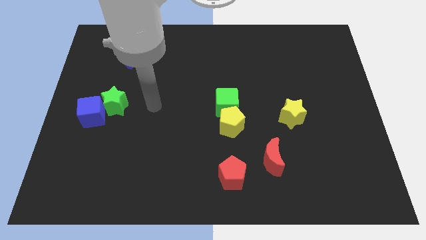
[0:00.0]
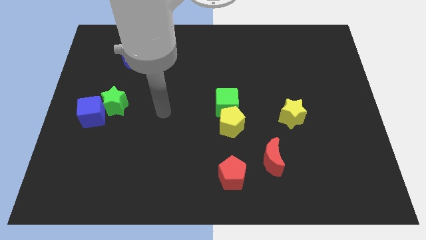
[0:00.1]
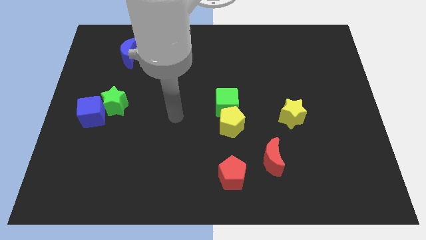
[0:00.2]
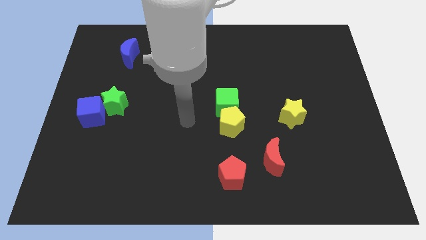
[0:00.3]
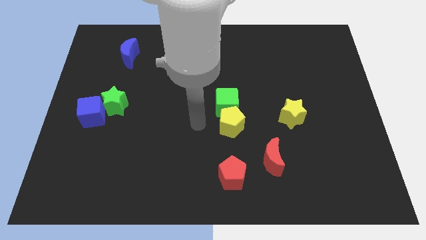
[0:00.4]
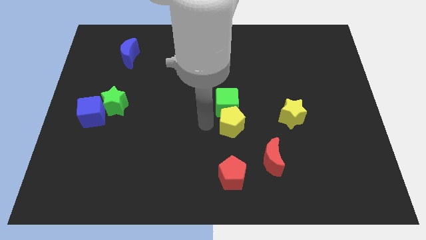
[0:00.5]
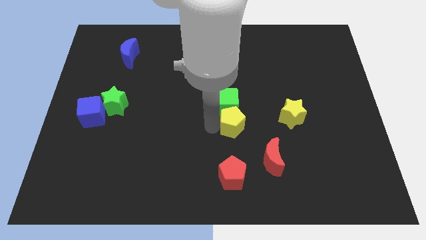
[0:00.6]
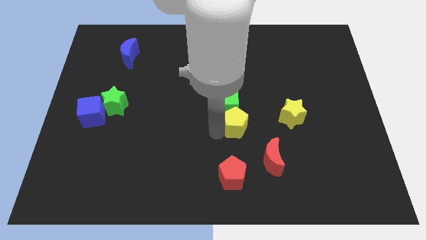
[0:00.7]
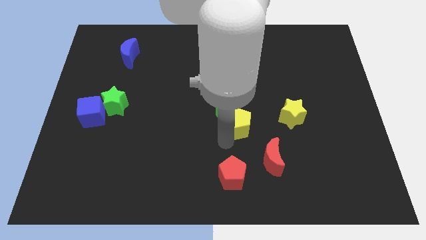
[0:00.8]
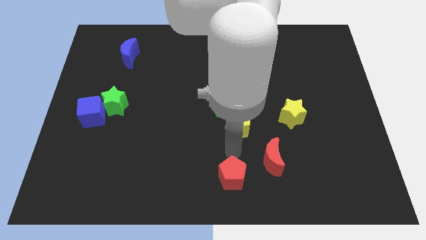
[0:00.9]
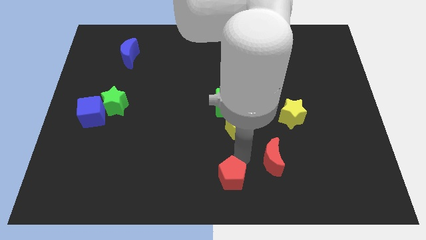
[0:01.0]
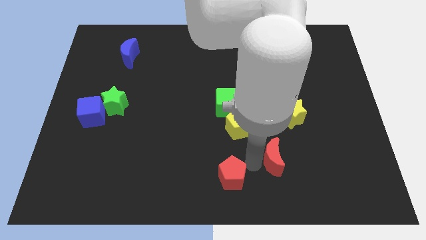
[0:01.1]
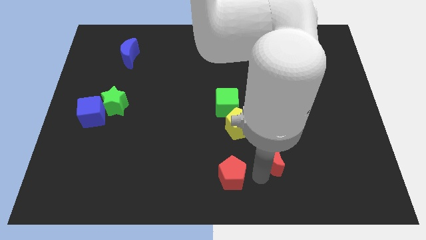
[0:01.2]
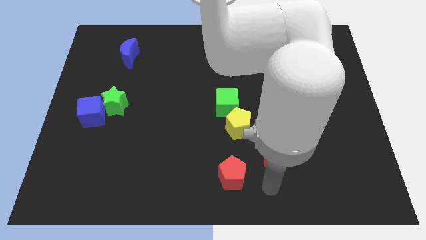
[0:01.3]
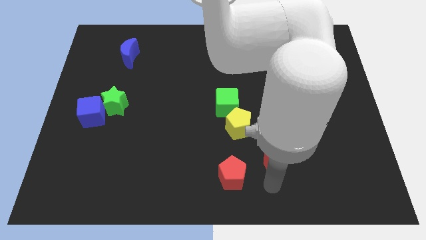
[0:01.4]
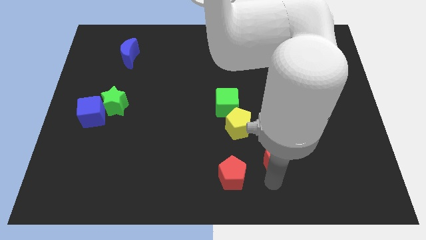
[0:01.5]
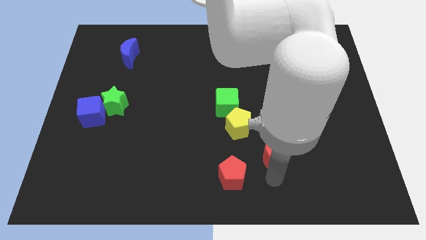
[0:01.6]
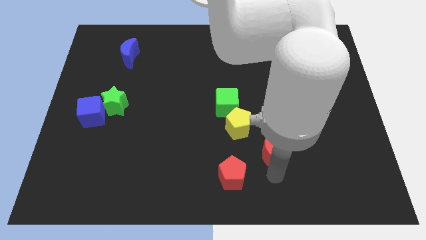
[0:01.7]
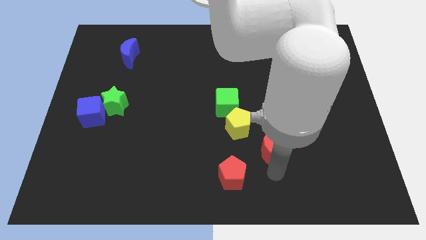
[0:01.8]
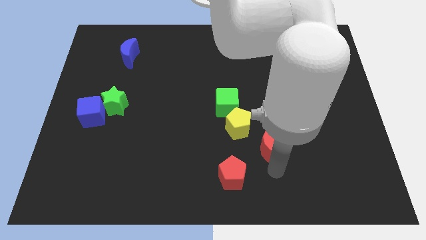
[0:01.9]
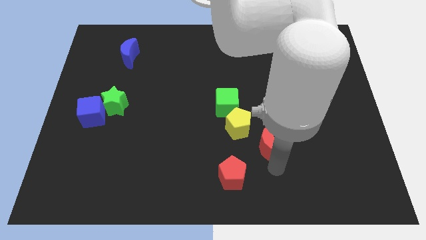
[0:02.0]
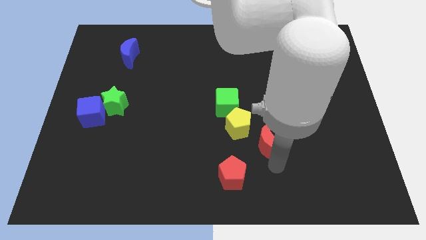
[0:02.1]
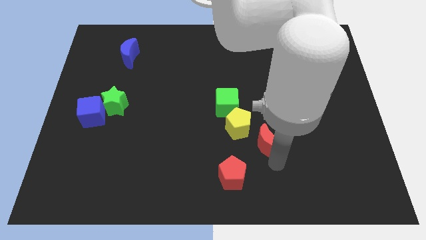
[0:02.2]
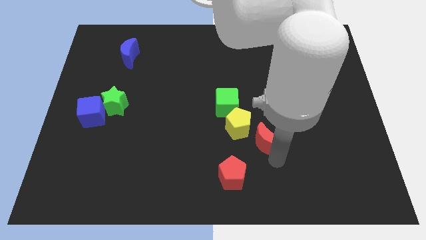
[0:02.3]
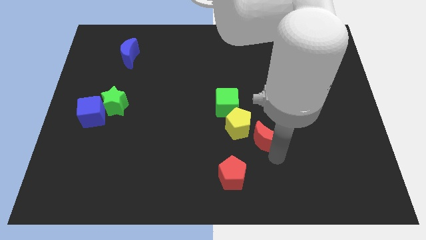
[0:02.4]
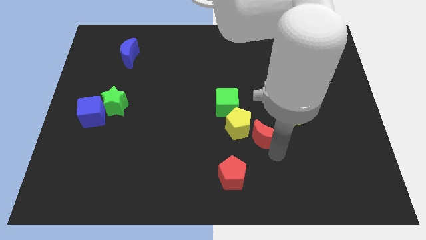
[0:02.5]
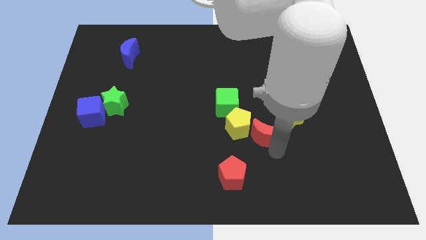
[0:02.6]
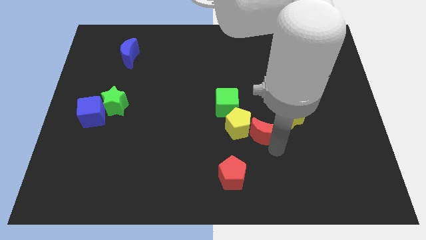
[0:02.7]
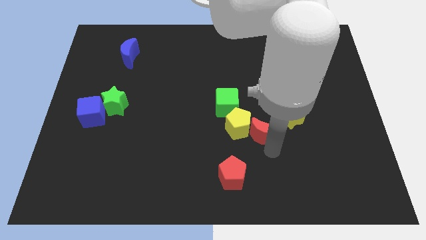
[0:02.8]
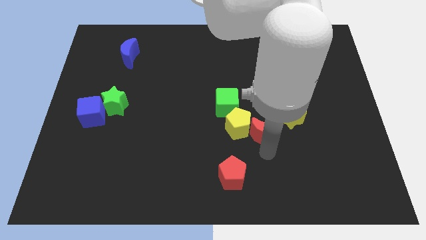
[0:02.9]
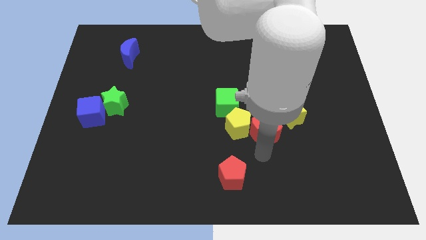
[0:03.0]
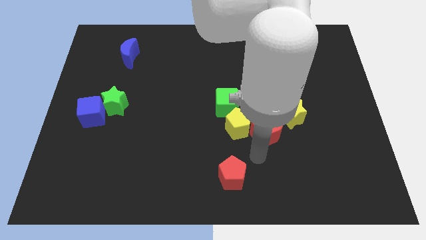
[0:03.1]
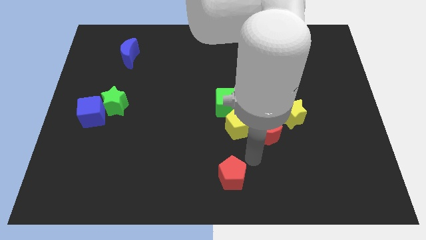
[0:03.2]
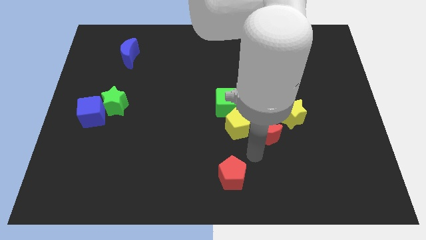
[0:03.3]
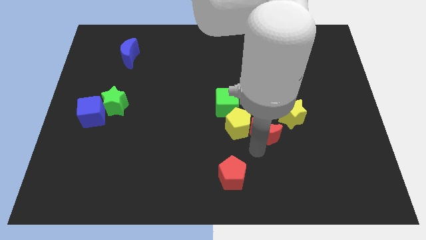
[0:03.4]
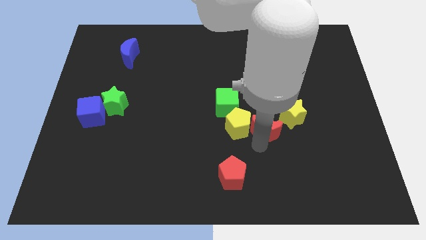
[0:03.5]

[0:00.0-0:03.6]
slightly push the red moon up

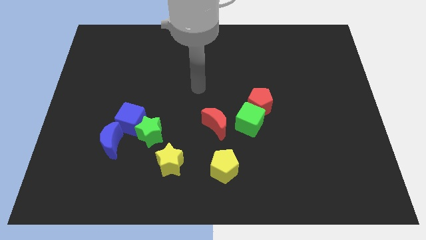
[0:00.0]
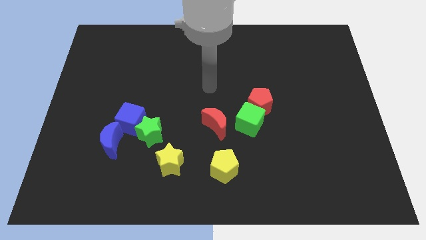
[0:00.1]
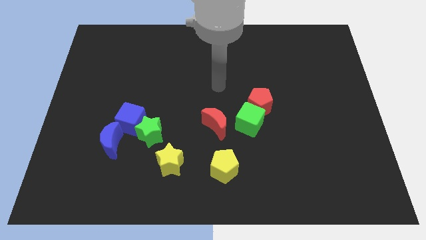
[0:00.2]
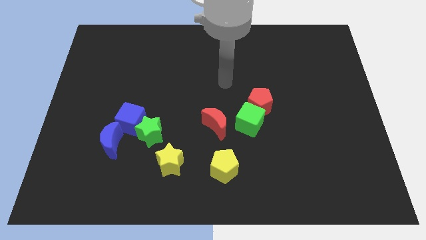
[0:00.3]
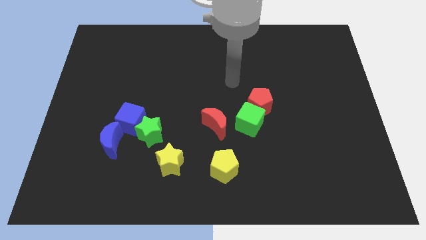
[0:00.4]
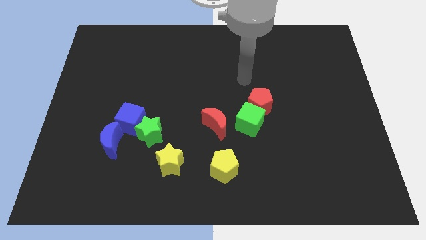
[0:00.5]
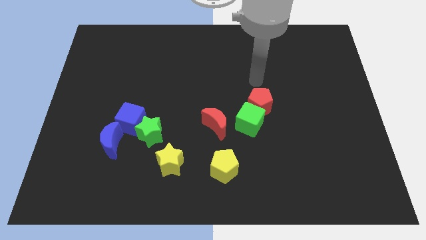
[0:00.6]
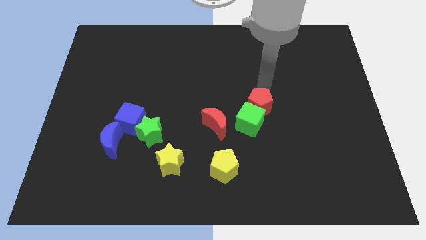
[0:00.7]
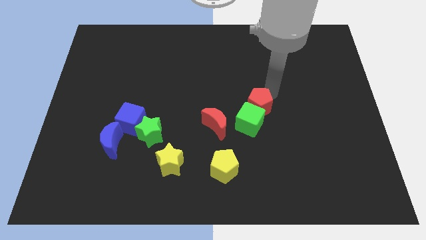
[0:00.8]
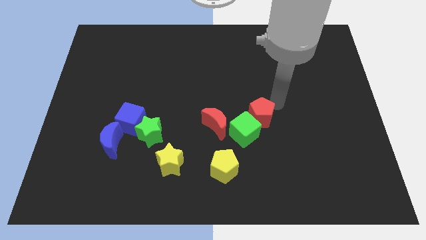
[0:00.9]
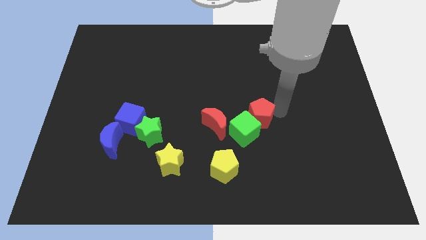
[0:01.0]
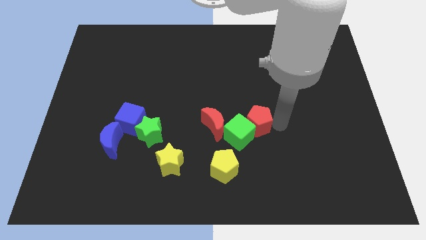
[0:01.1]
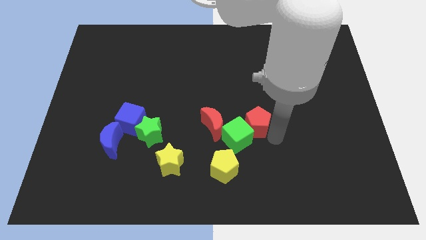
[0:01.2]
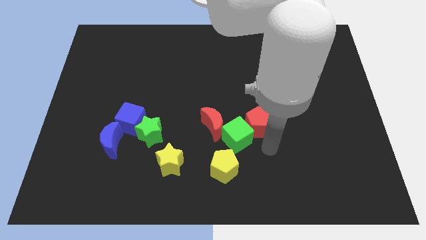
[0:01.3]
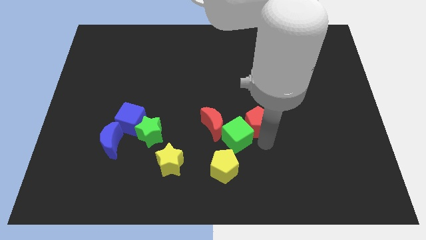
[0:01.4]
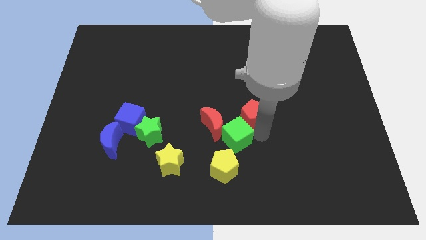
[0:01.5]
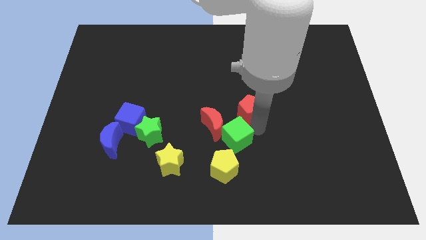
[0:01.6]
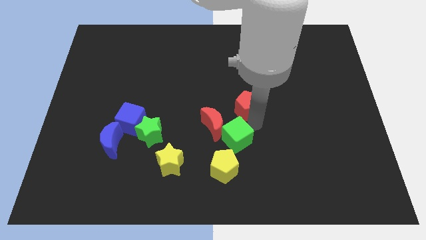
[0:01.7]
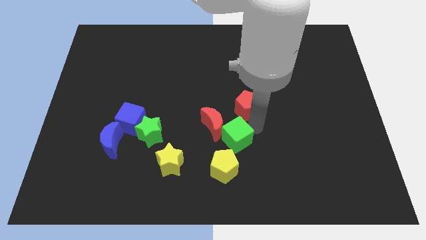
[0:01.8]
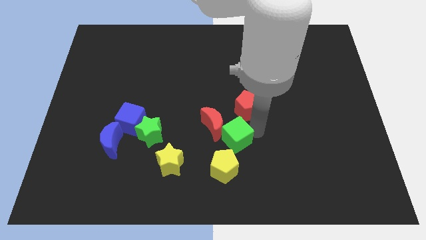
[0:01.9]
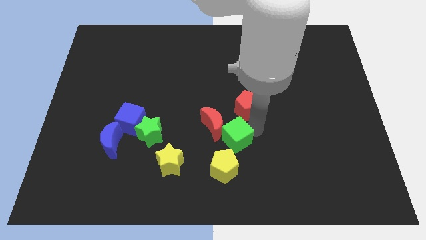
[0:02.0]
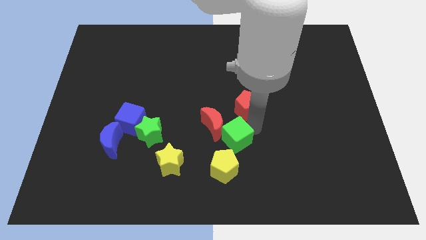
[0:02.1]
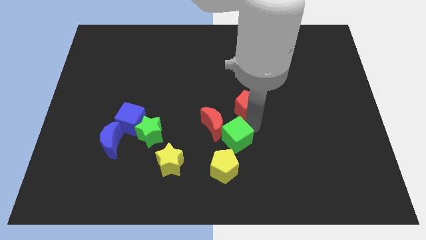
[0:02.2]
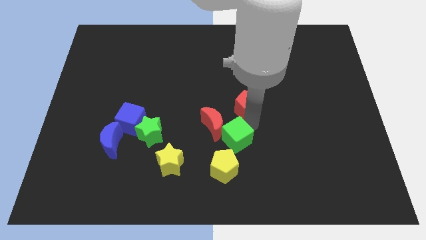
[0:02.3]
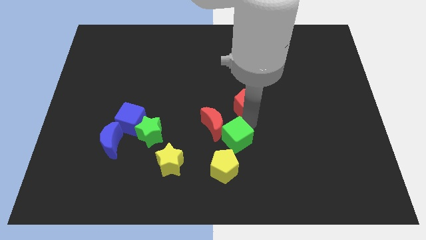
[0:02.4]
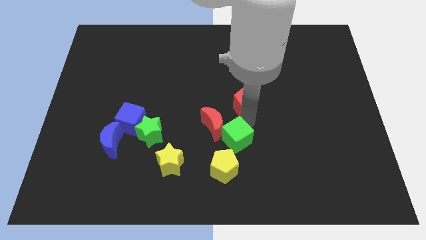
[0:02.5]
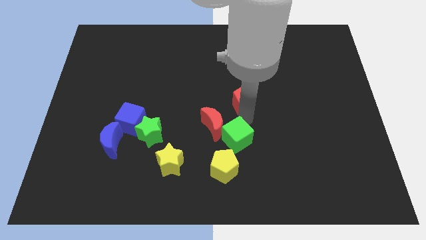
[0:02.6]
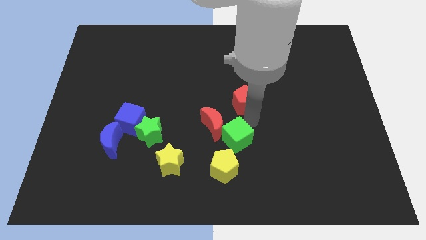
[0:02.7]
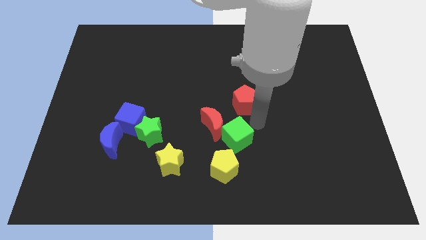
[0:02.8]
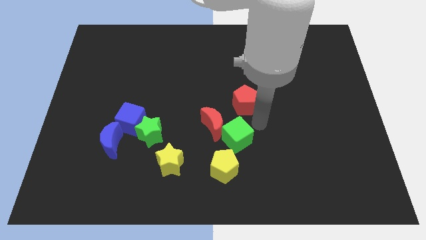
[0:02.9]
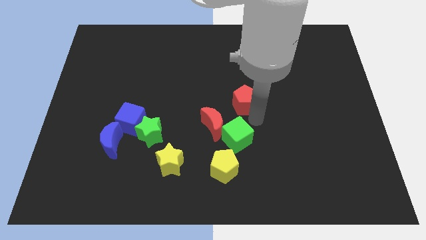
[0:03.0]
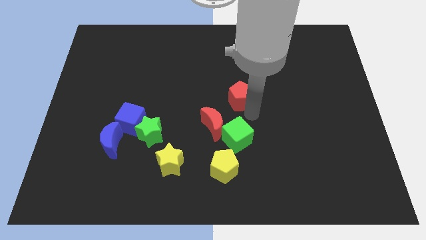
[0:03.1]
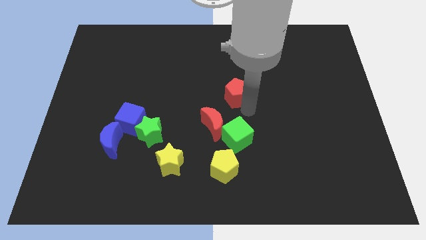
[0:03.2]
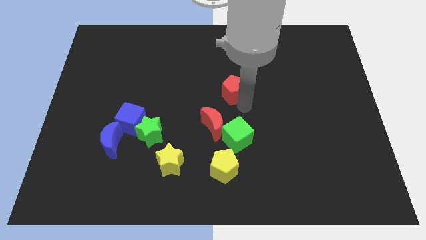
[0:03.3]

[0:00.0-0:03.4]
slide the red pentagon somewhat upwards and left

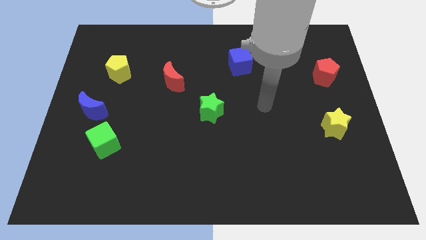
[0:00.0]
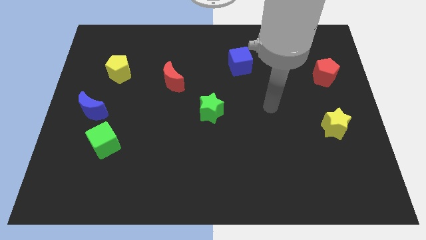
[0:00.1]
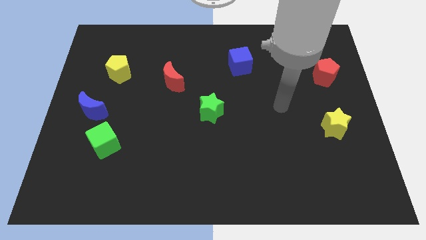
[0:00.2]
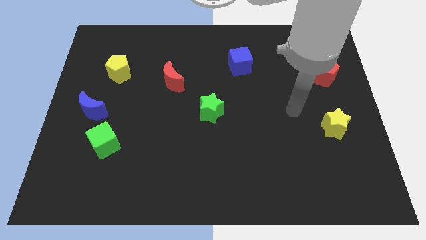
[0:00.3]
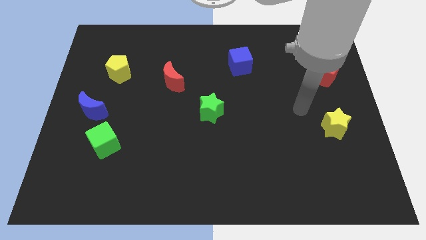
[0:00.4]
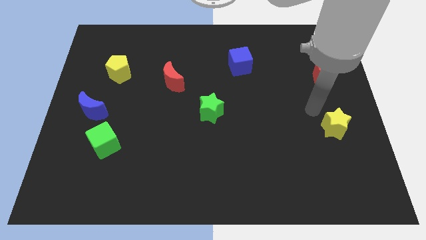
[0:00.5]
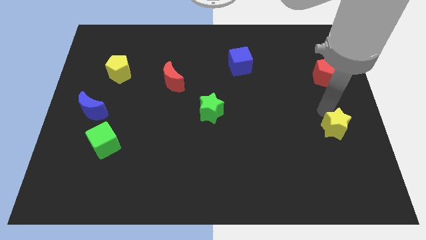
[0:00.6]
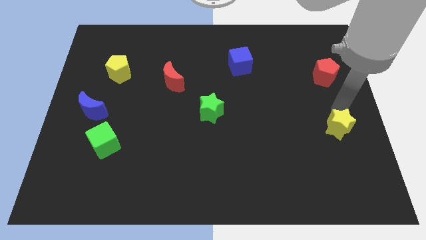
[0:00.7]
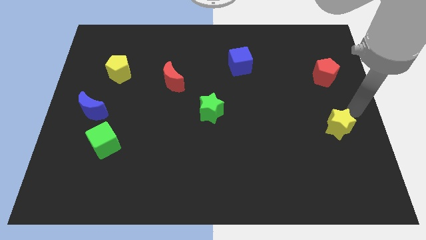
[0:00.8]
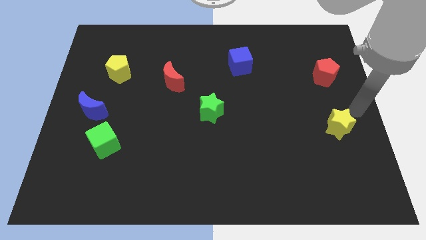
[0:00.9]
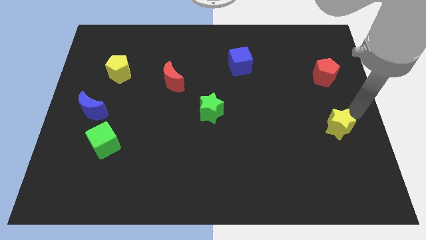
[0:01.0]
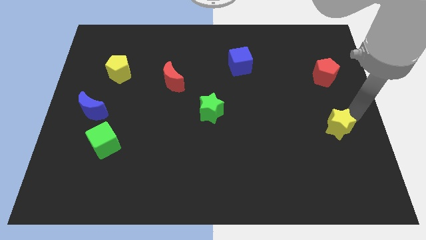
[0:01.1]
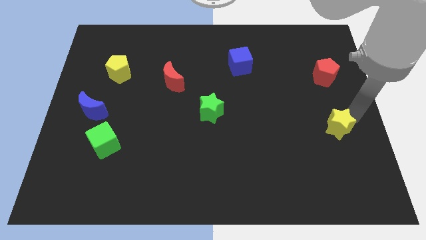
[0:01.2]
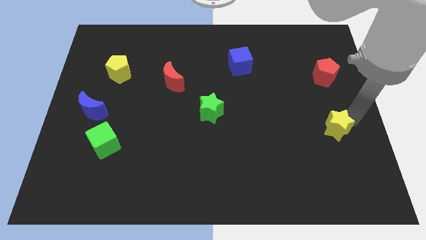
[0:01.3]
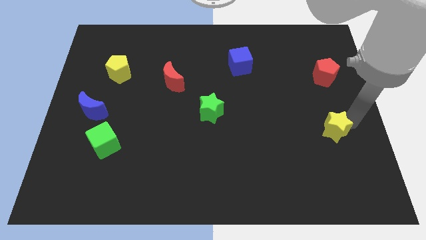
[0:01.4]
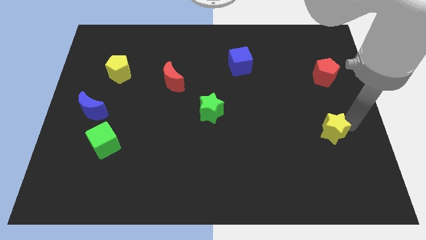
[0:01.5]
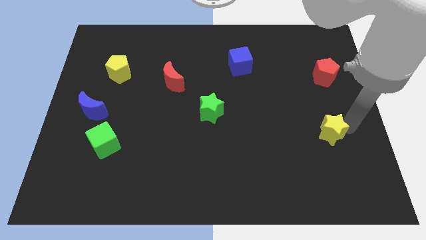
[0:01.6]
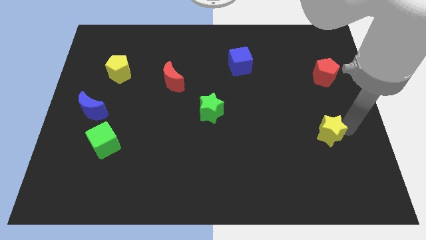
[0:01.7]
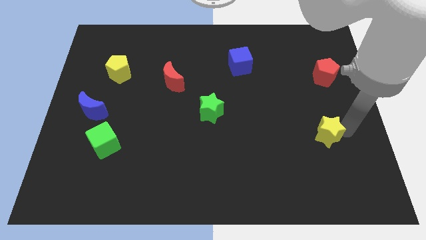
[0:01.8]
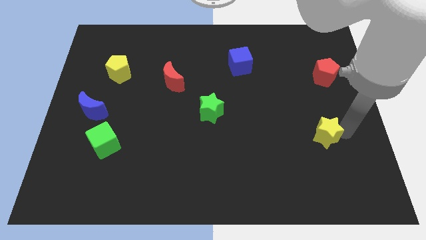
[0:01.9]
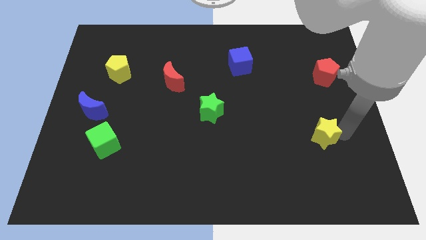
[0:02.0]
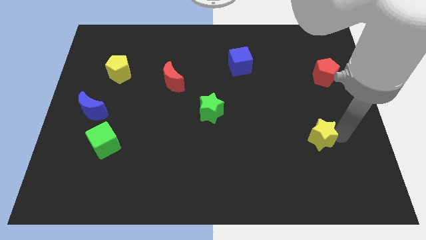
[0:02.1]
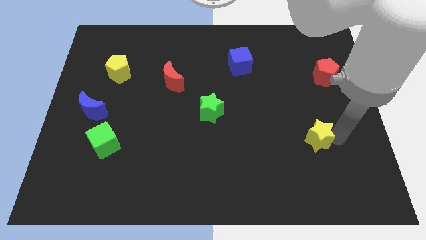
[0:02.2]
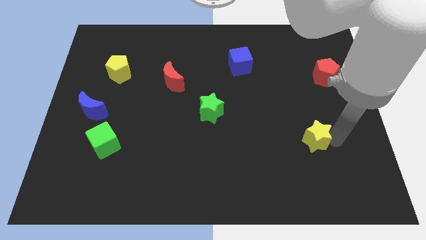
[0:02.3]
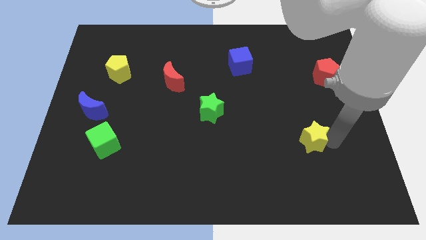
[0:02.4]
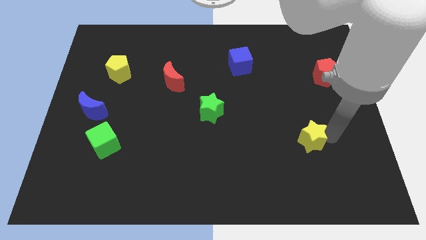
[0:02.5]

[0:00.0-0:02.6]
slide the yellow star down and left a bit
